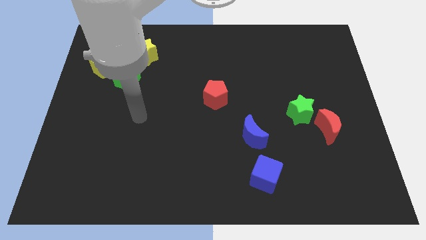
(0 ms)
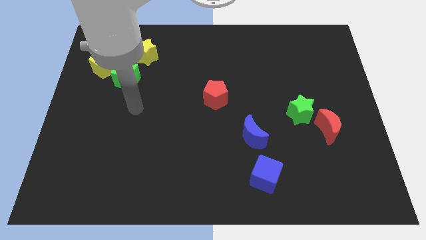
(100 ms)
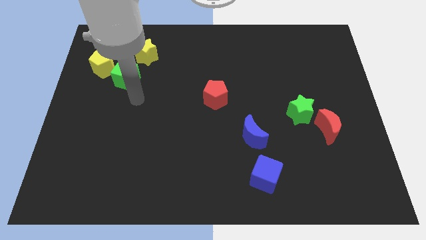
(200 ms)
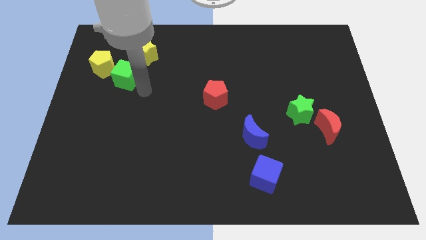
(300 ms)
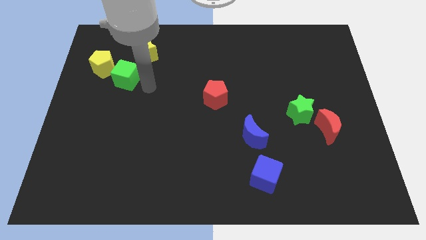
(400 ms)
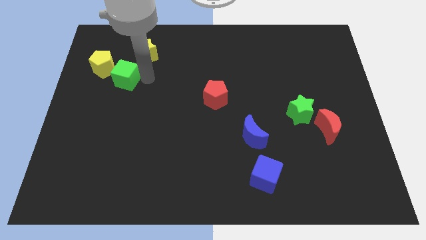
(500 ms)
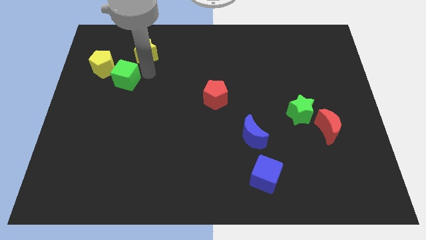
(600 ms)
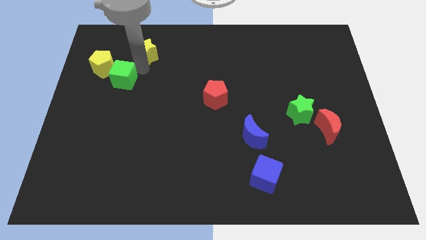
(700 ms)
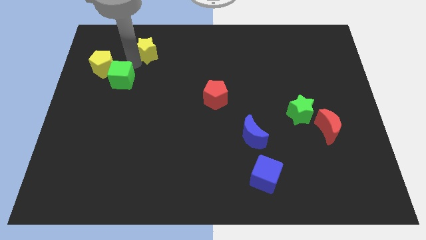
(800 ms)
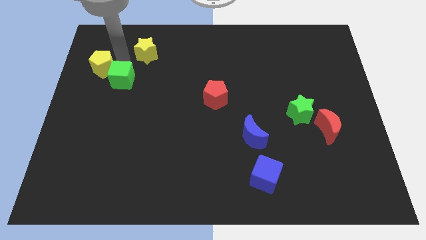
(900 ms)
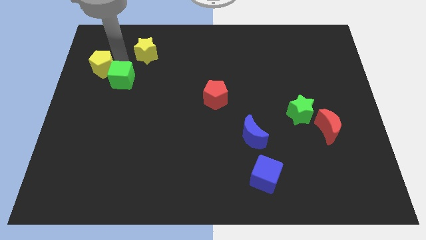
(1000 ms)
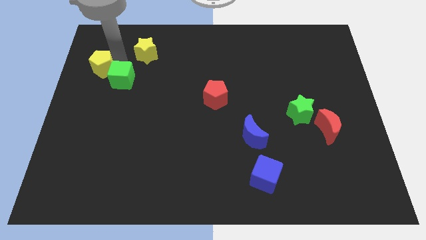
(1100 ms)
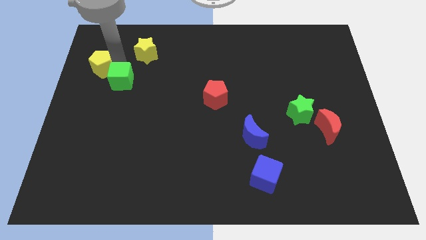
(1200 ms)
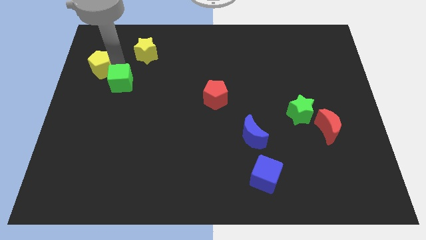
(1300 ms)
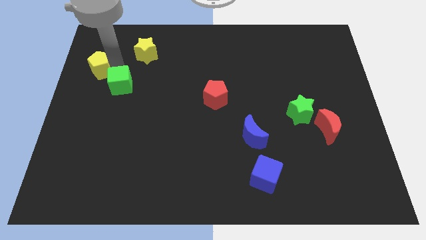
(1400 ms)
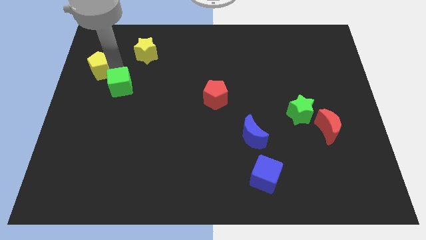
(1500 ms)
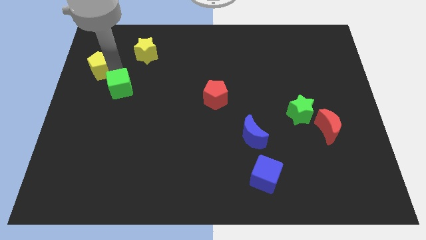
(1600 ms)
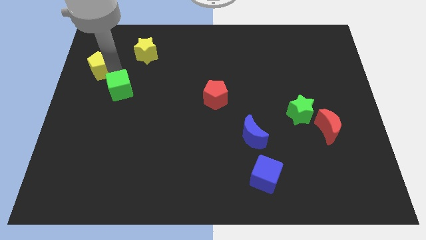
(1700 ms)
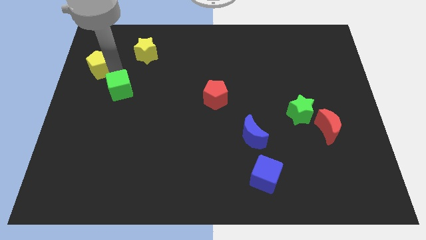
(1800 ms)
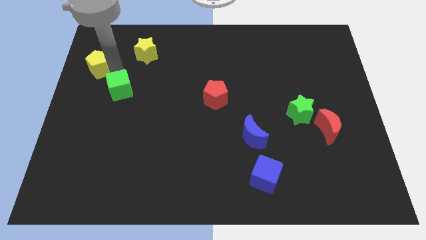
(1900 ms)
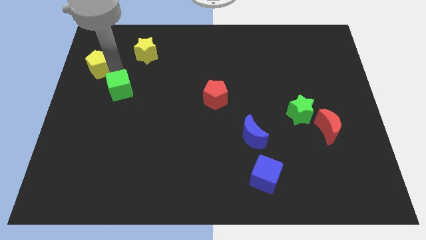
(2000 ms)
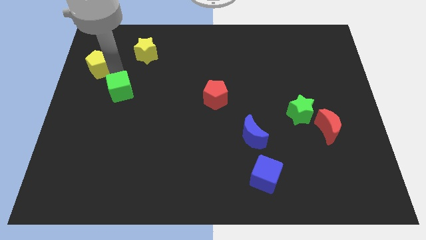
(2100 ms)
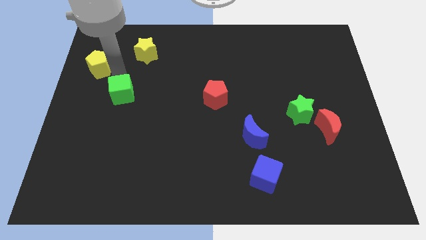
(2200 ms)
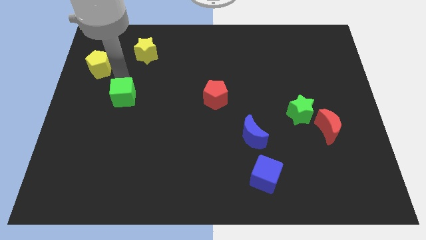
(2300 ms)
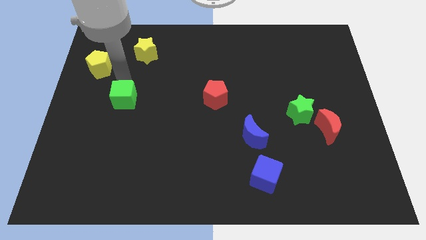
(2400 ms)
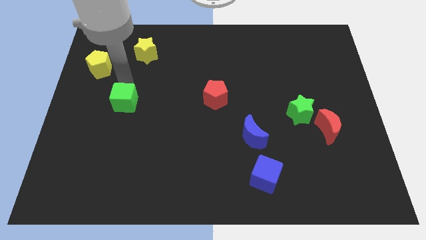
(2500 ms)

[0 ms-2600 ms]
move the green cube downwards a little bit

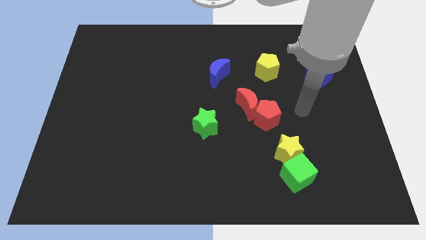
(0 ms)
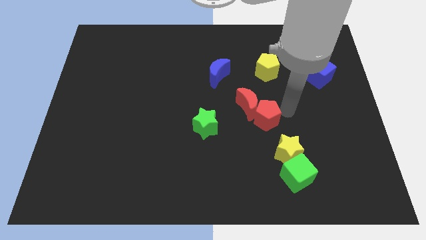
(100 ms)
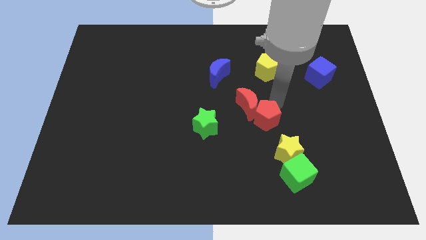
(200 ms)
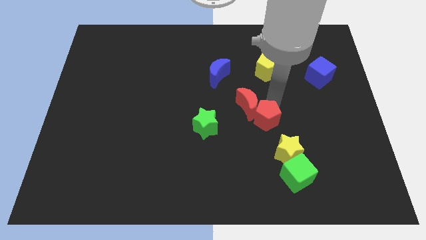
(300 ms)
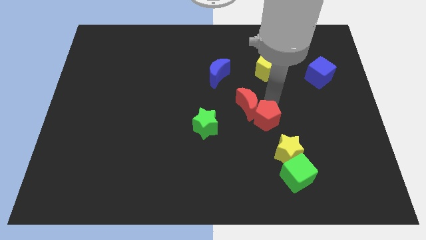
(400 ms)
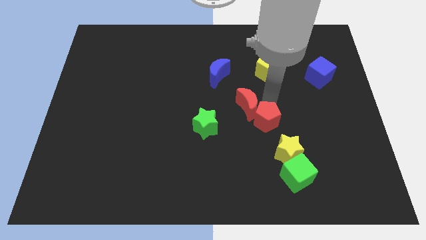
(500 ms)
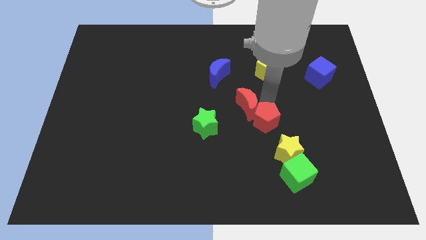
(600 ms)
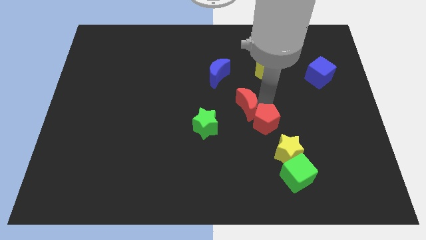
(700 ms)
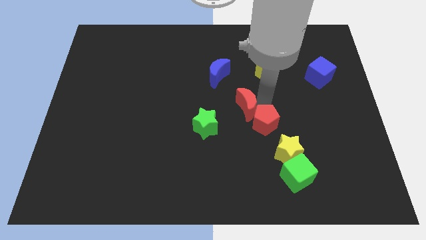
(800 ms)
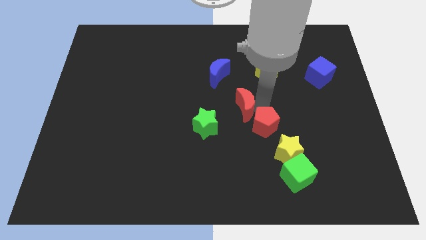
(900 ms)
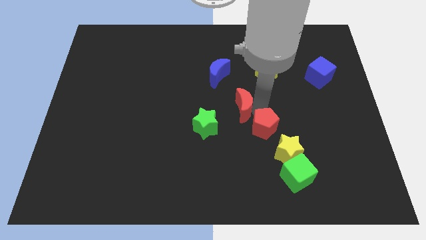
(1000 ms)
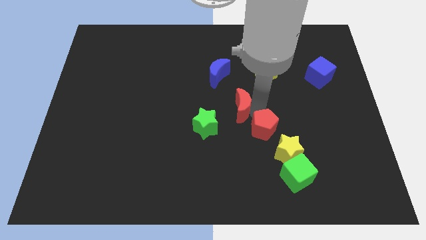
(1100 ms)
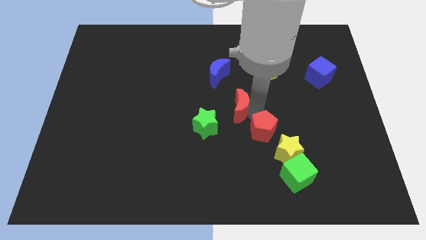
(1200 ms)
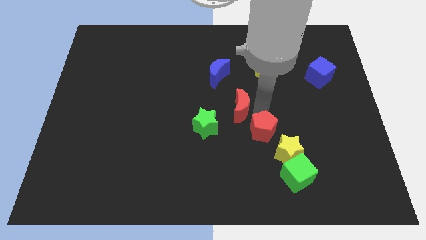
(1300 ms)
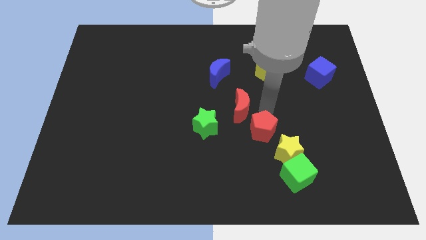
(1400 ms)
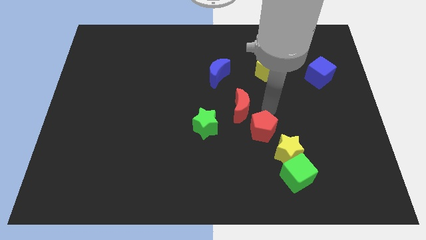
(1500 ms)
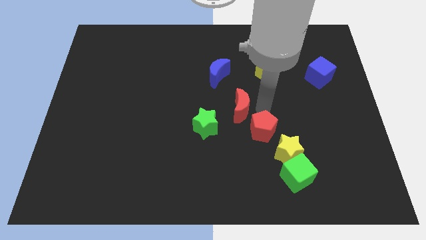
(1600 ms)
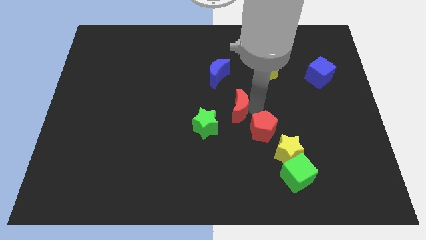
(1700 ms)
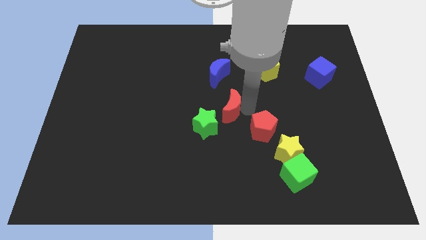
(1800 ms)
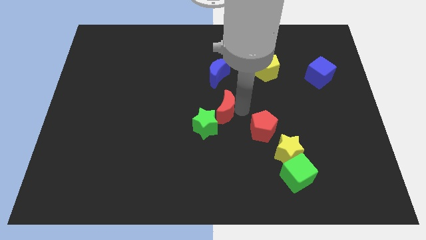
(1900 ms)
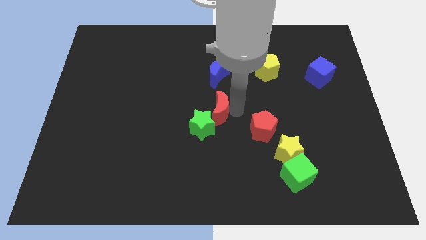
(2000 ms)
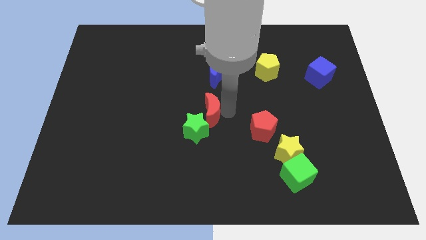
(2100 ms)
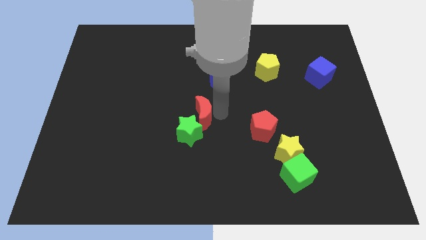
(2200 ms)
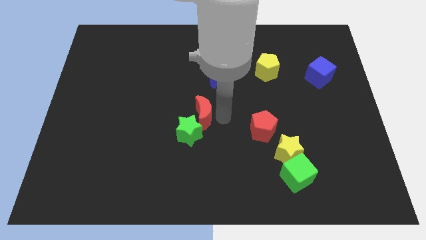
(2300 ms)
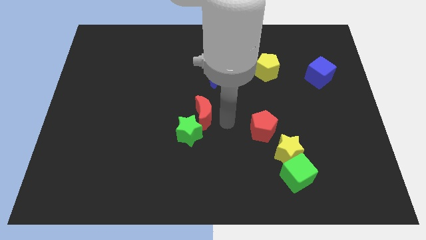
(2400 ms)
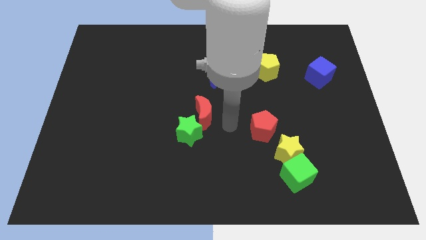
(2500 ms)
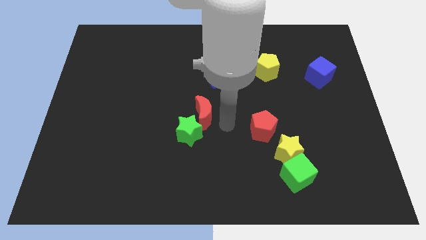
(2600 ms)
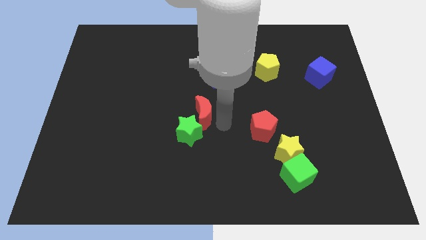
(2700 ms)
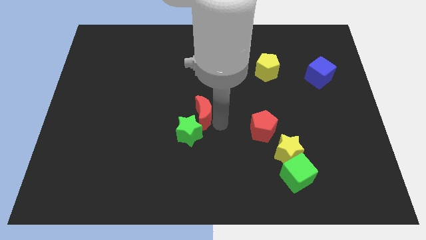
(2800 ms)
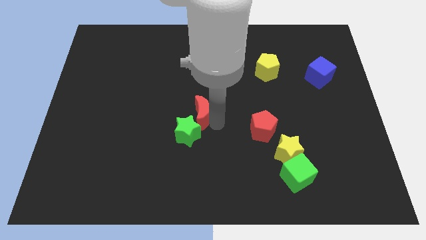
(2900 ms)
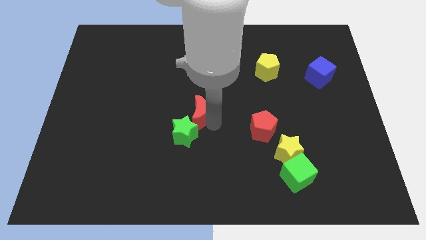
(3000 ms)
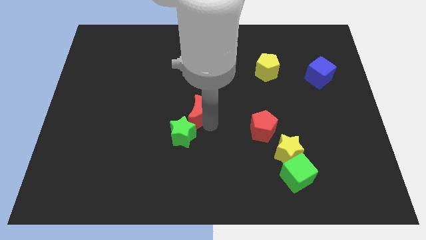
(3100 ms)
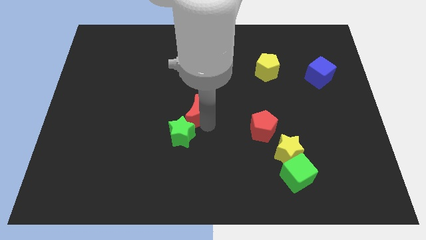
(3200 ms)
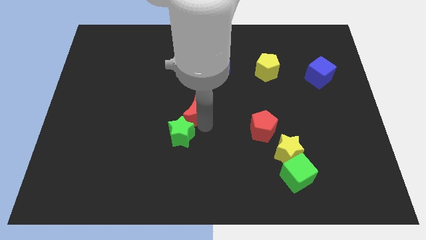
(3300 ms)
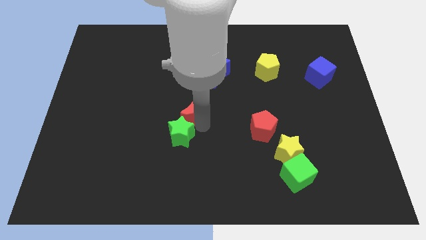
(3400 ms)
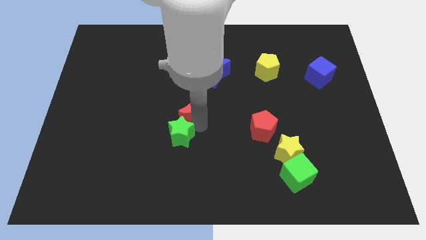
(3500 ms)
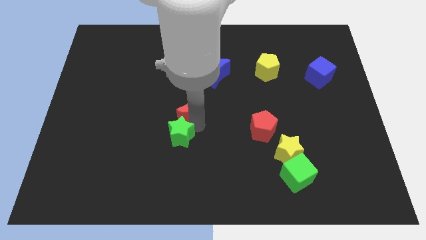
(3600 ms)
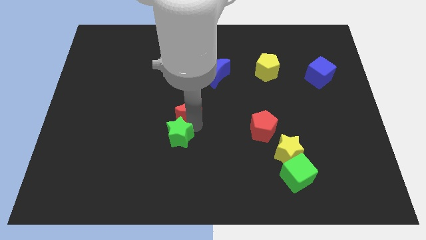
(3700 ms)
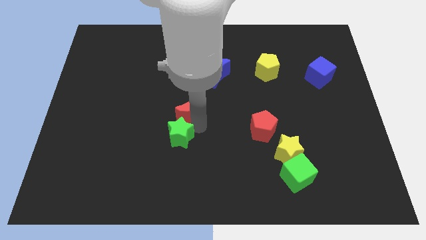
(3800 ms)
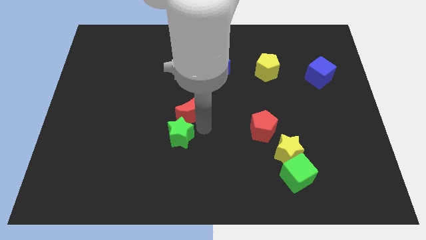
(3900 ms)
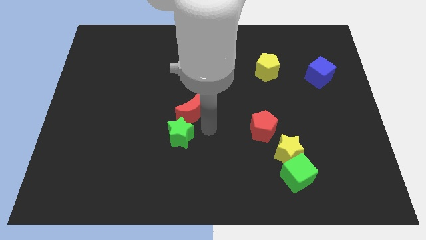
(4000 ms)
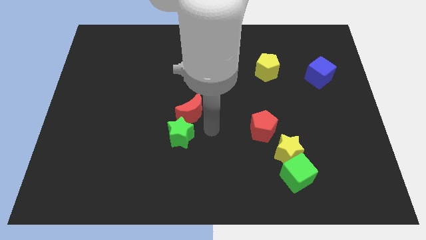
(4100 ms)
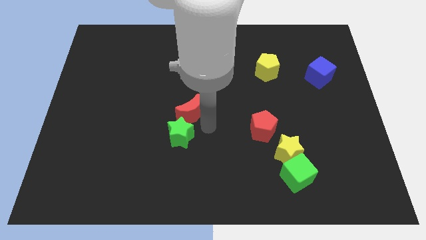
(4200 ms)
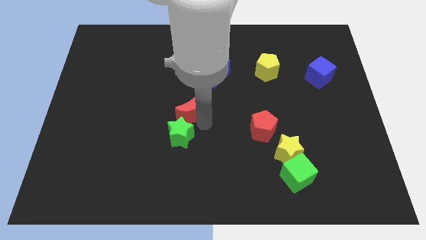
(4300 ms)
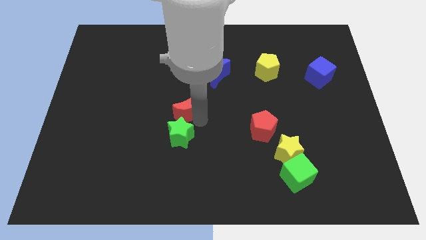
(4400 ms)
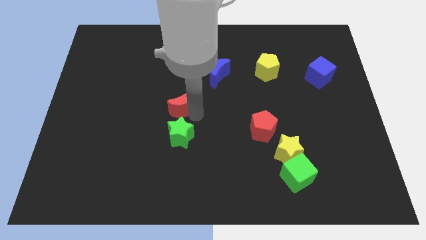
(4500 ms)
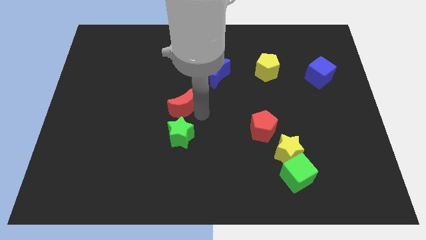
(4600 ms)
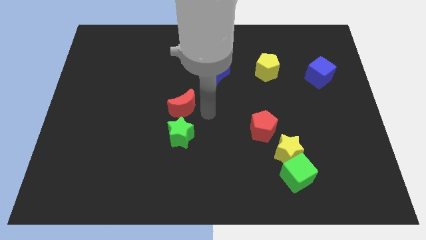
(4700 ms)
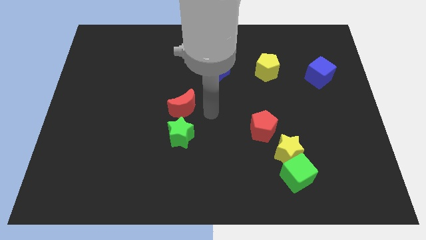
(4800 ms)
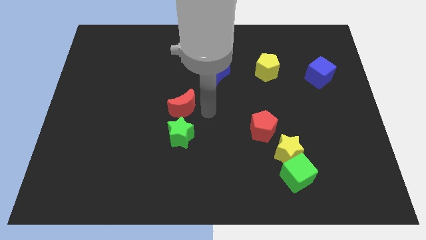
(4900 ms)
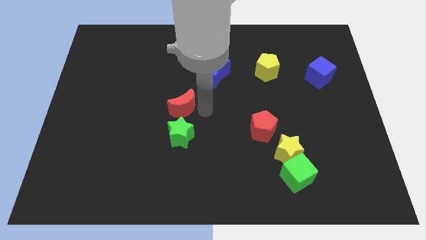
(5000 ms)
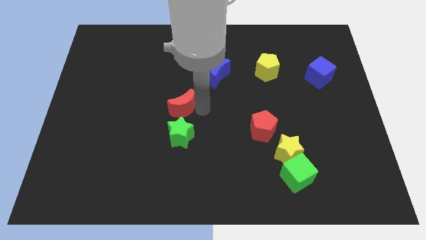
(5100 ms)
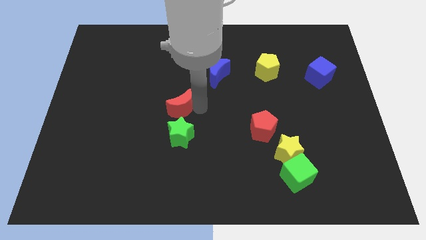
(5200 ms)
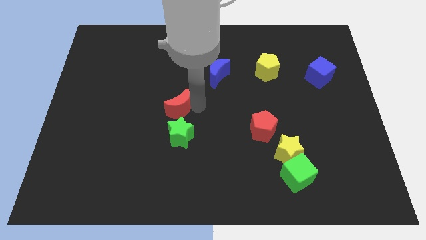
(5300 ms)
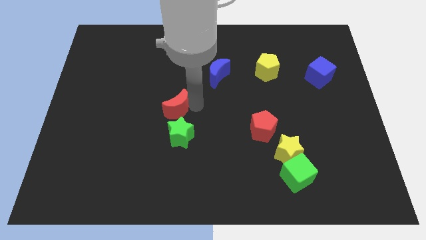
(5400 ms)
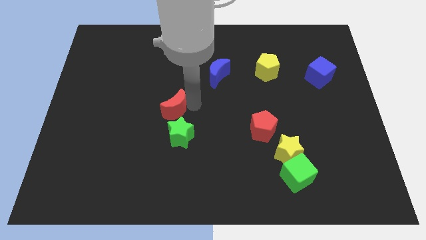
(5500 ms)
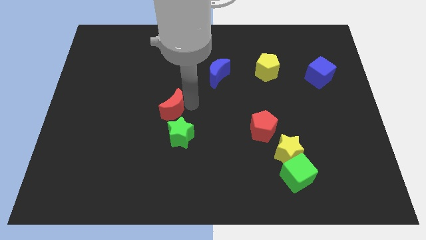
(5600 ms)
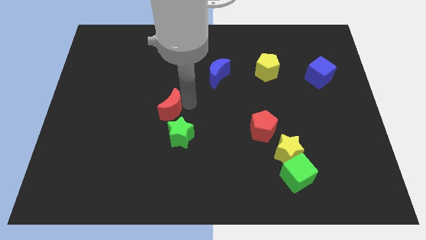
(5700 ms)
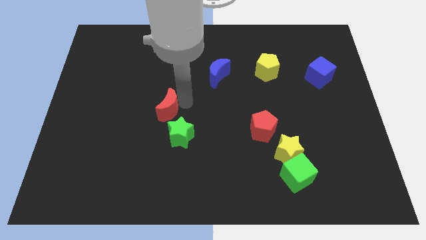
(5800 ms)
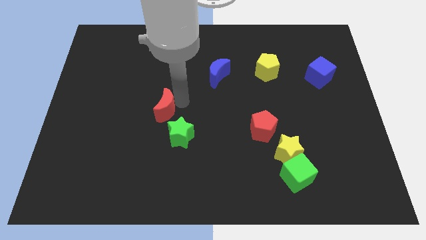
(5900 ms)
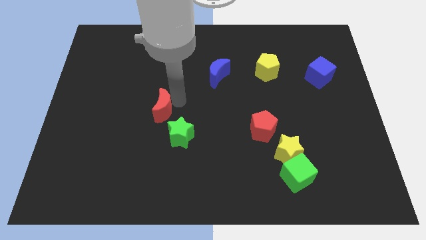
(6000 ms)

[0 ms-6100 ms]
push the red moon left
